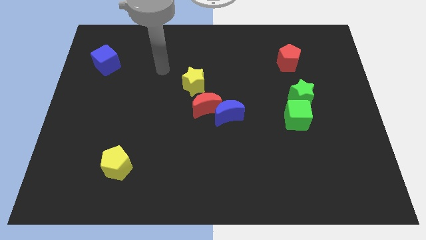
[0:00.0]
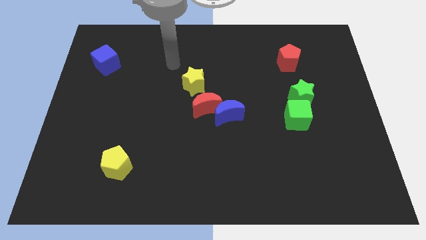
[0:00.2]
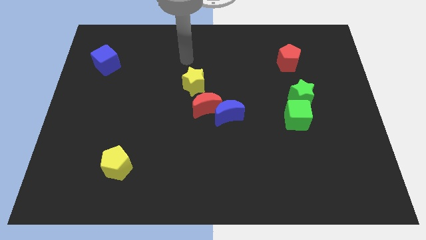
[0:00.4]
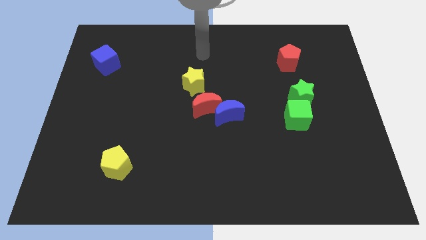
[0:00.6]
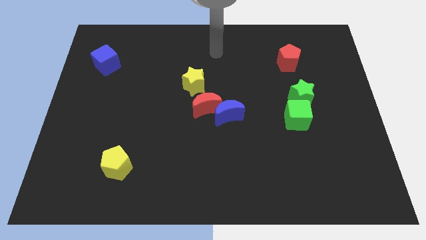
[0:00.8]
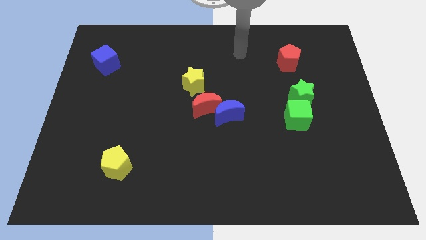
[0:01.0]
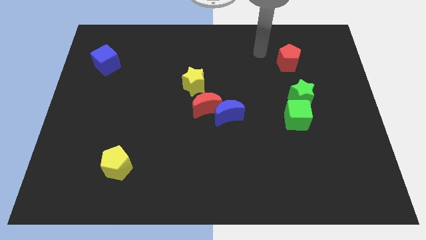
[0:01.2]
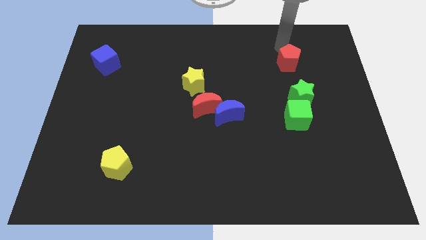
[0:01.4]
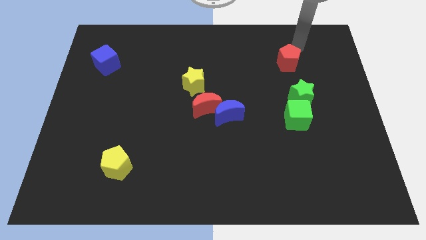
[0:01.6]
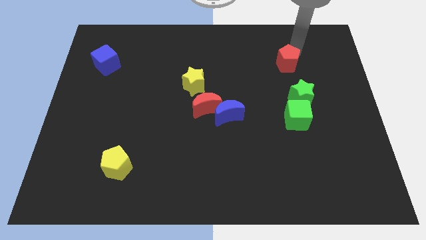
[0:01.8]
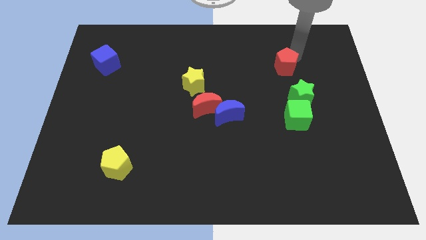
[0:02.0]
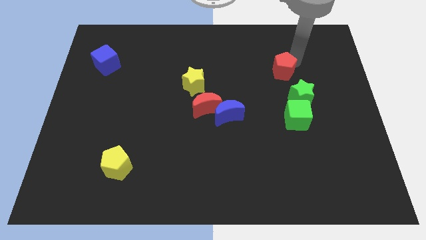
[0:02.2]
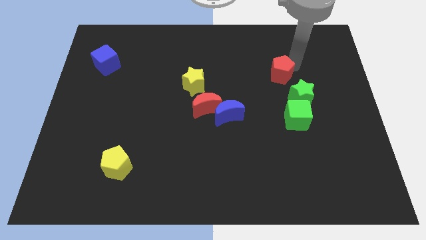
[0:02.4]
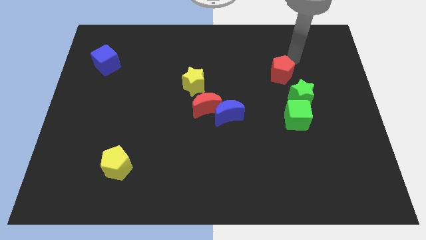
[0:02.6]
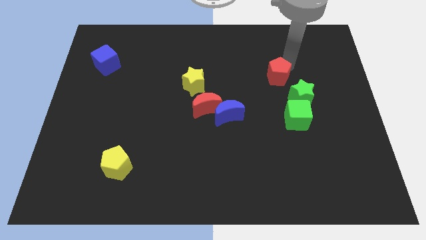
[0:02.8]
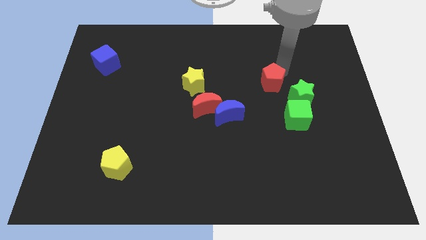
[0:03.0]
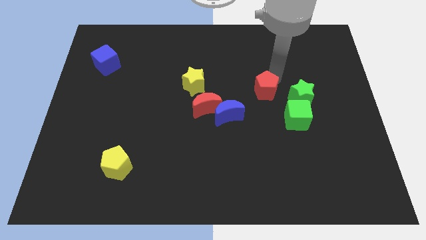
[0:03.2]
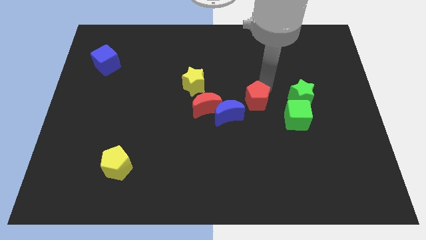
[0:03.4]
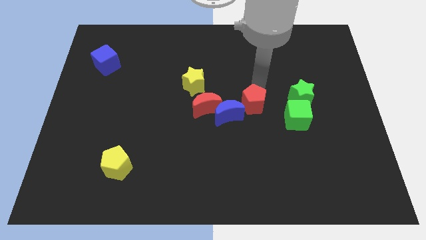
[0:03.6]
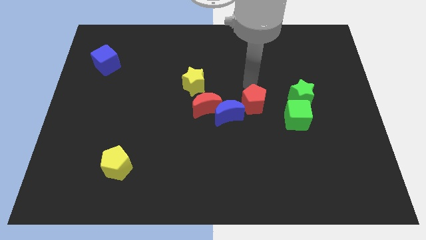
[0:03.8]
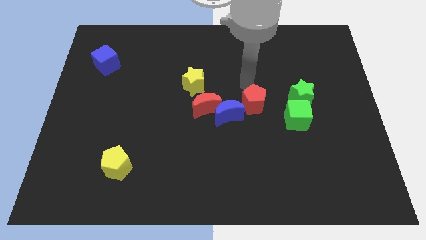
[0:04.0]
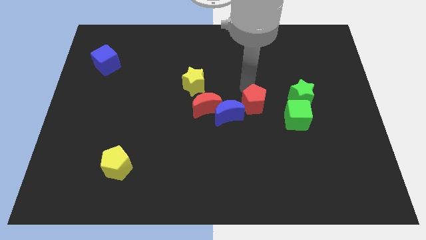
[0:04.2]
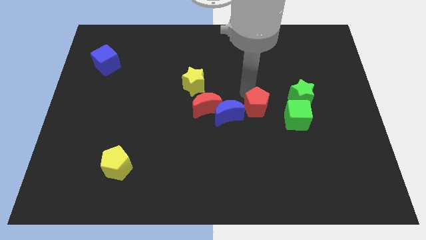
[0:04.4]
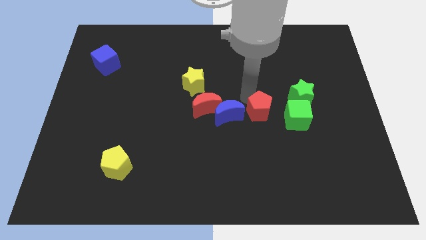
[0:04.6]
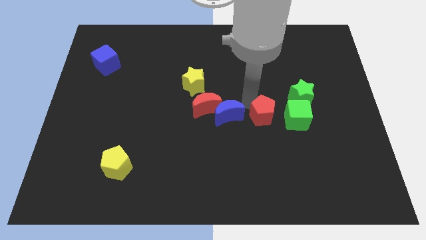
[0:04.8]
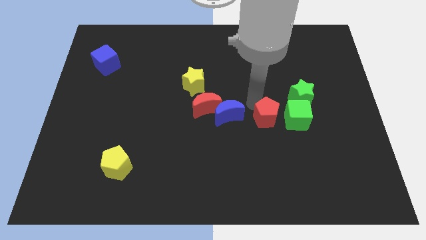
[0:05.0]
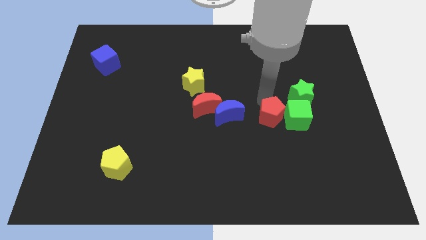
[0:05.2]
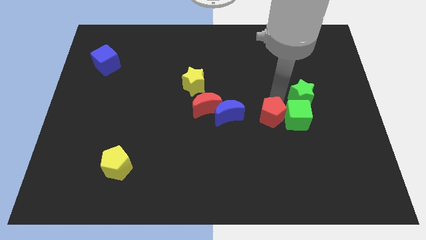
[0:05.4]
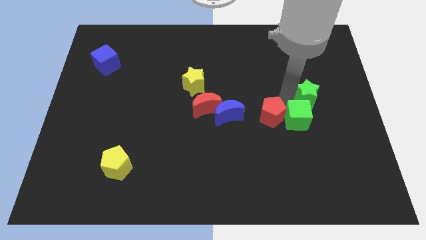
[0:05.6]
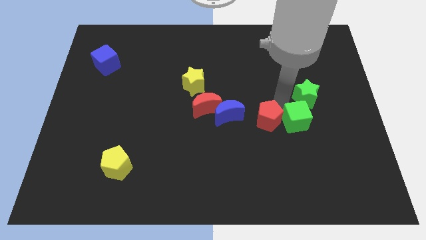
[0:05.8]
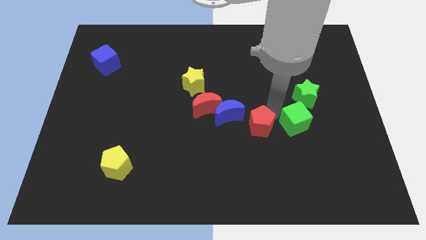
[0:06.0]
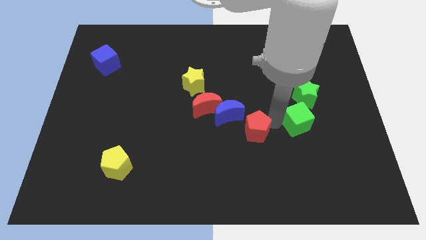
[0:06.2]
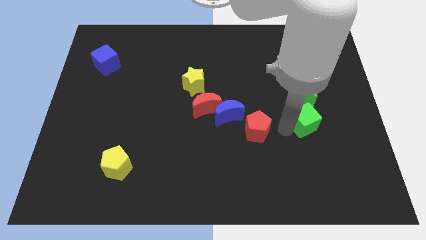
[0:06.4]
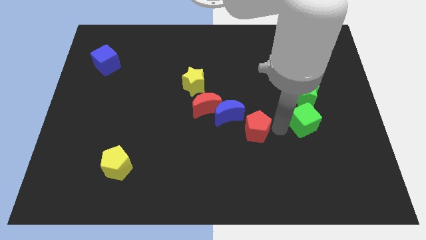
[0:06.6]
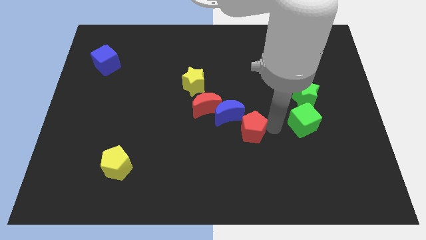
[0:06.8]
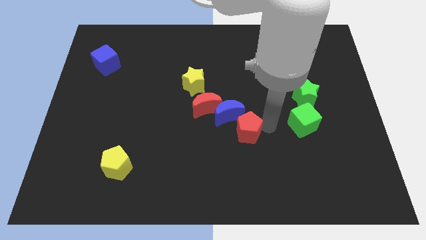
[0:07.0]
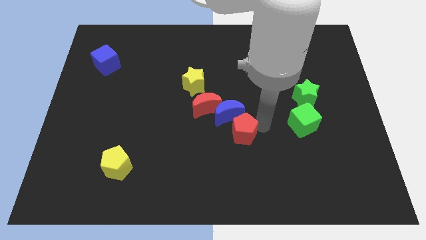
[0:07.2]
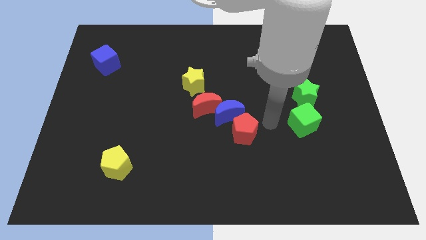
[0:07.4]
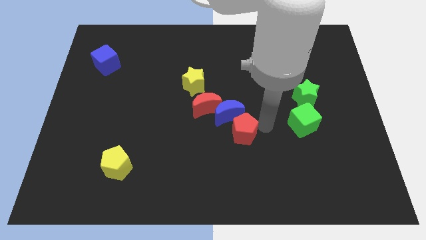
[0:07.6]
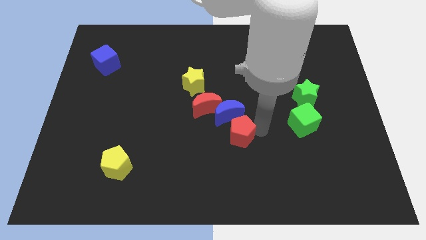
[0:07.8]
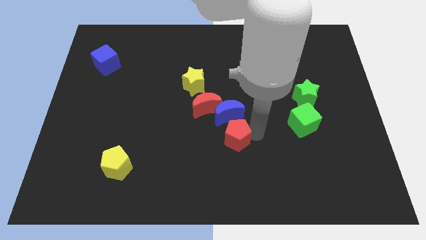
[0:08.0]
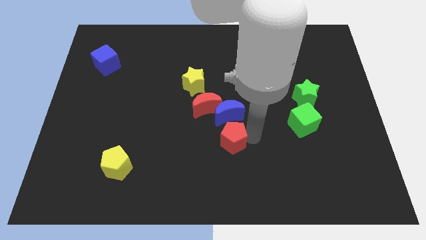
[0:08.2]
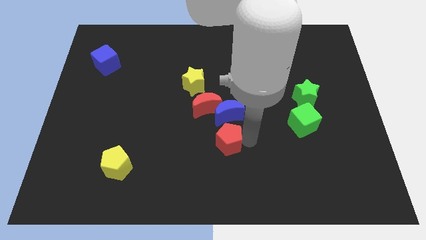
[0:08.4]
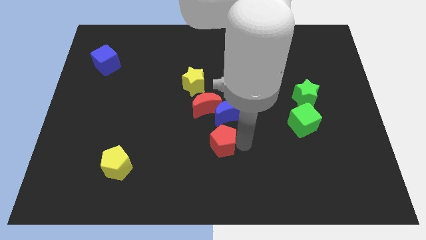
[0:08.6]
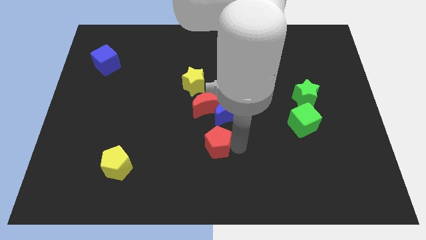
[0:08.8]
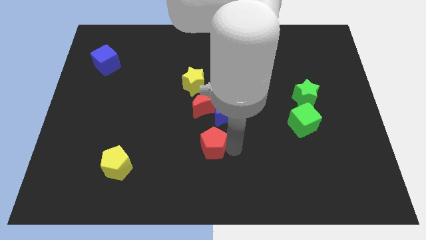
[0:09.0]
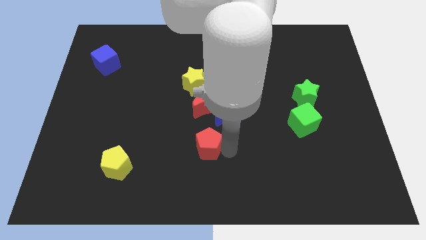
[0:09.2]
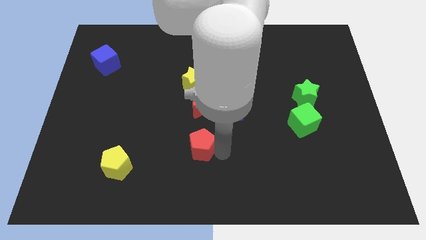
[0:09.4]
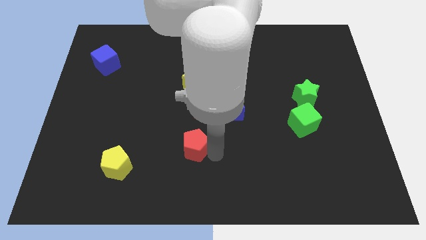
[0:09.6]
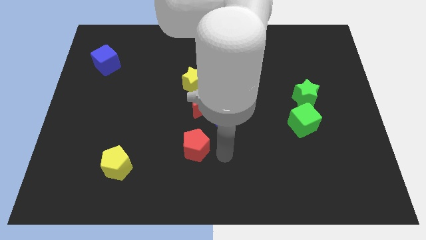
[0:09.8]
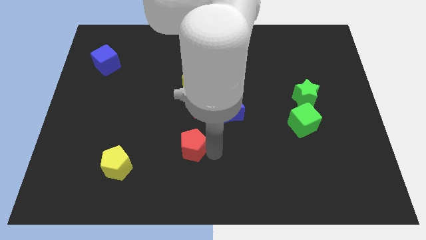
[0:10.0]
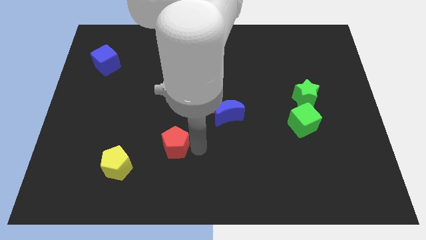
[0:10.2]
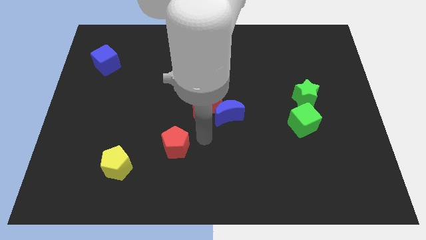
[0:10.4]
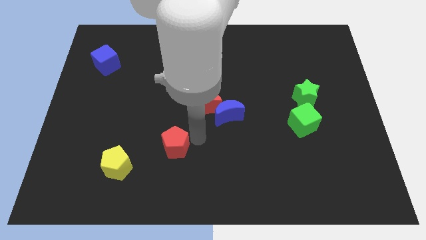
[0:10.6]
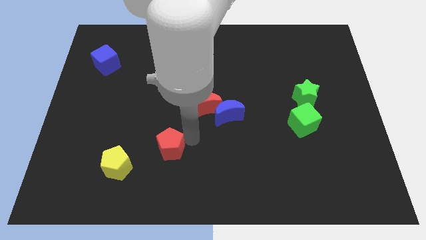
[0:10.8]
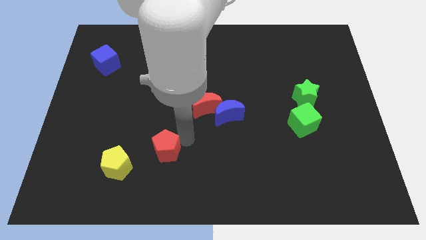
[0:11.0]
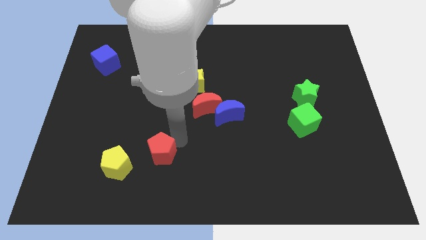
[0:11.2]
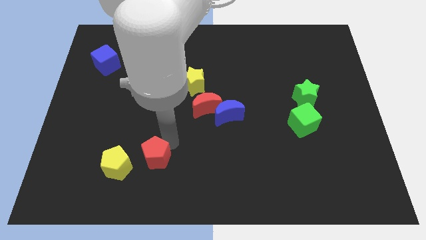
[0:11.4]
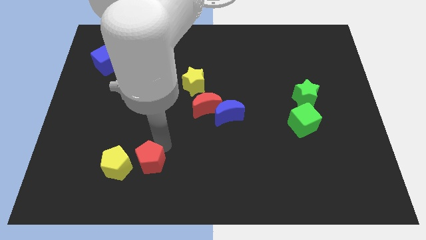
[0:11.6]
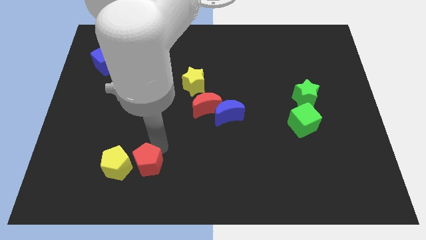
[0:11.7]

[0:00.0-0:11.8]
slide the red pentagon next to the yellow pentagon

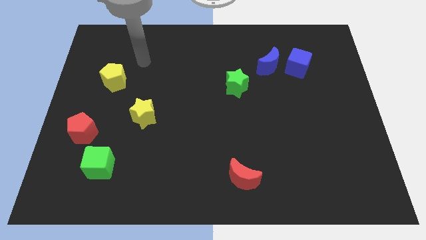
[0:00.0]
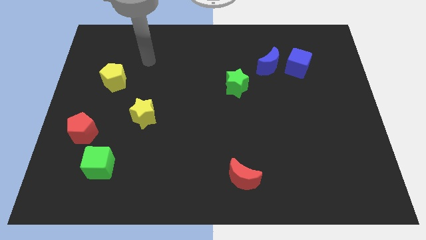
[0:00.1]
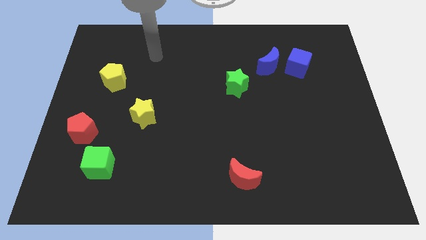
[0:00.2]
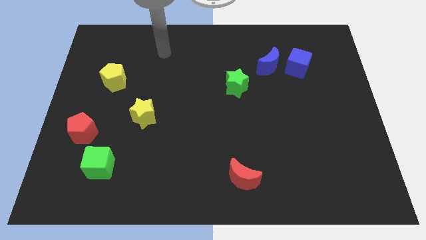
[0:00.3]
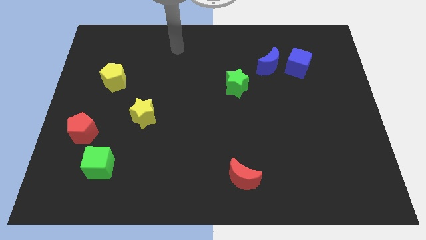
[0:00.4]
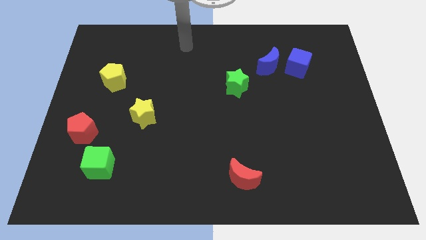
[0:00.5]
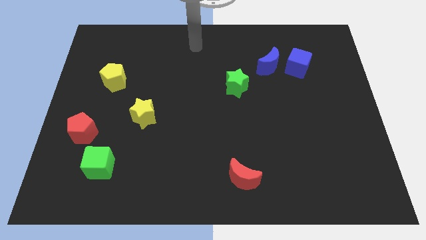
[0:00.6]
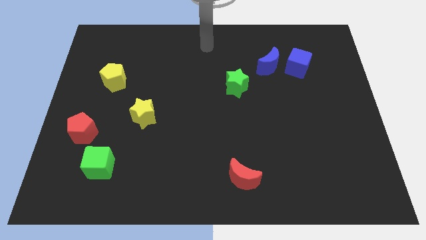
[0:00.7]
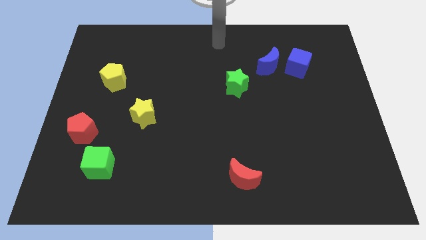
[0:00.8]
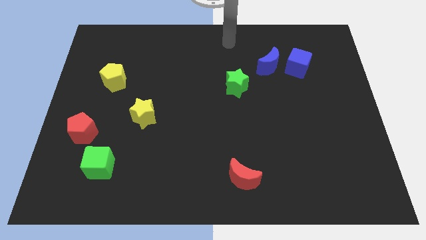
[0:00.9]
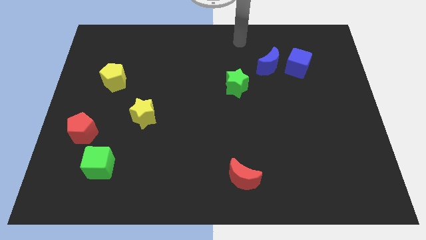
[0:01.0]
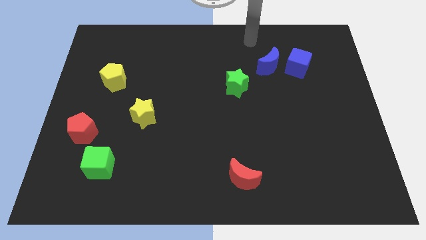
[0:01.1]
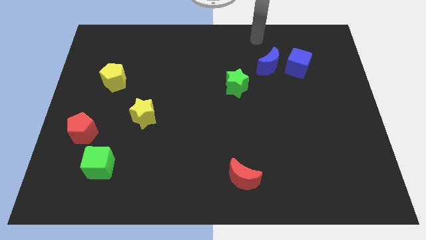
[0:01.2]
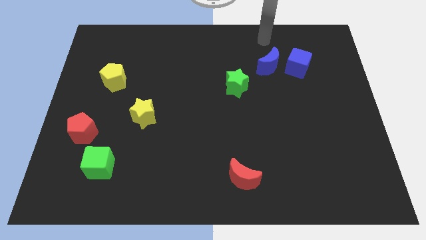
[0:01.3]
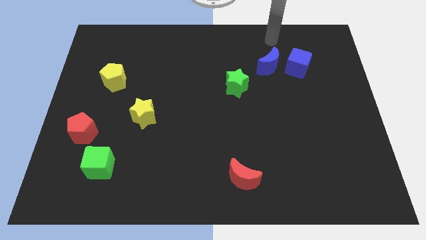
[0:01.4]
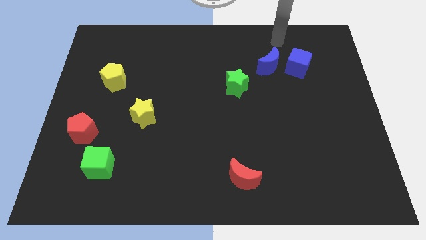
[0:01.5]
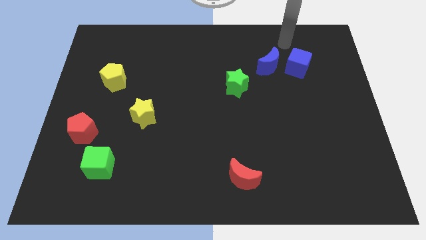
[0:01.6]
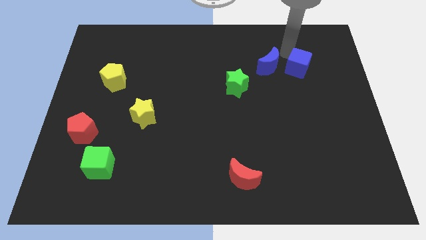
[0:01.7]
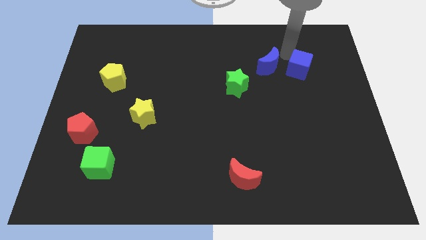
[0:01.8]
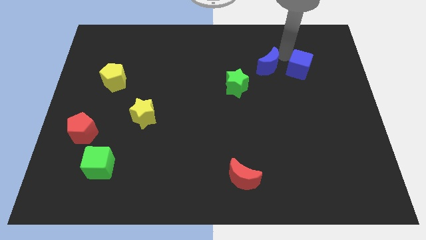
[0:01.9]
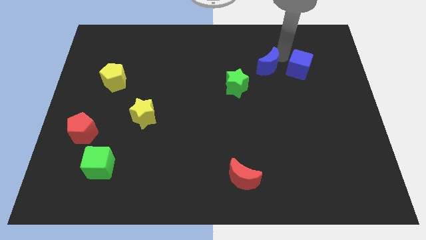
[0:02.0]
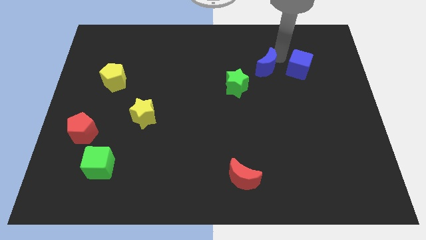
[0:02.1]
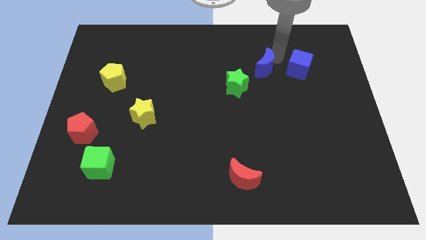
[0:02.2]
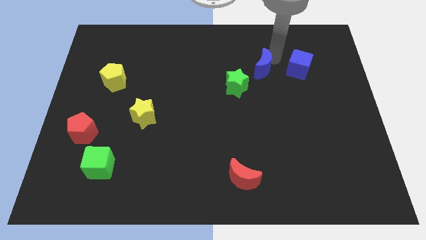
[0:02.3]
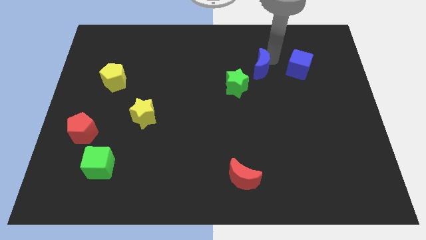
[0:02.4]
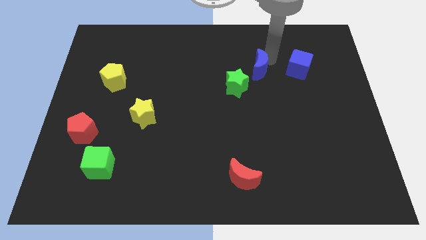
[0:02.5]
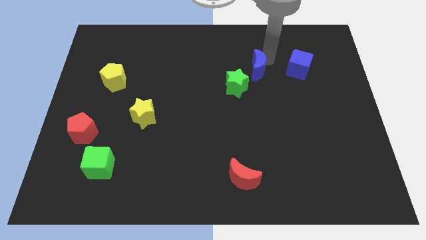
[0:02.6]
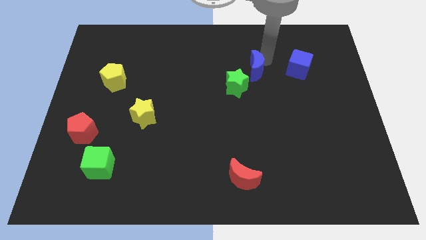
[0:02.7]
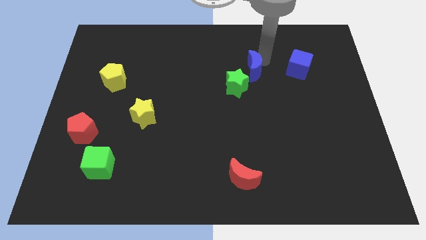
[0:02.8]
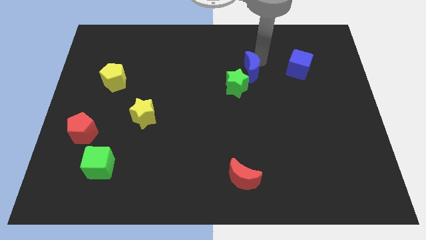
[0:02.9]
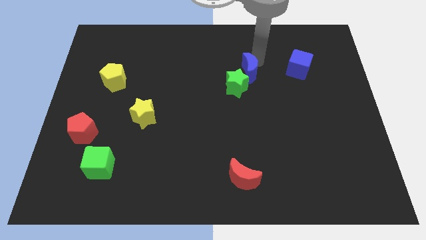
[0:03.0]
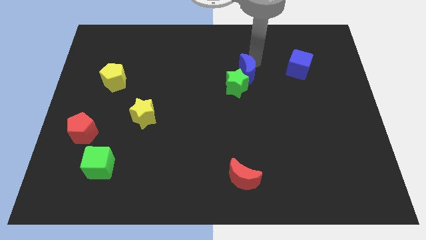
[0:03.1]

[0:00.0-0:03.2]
move the blue moon to the green star
